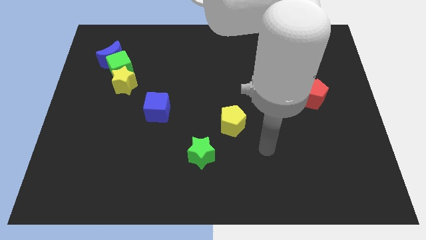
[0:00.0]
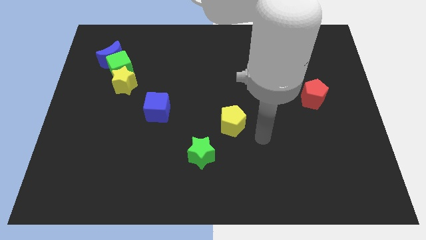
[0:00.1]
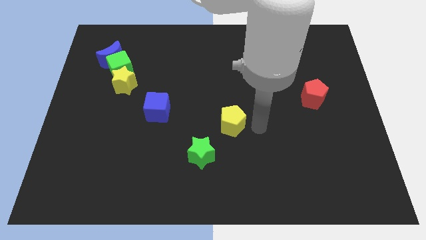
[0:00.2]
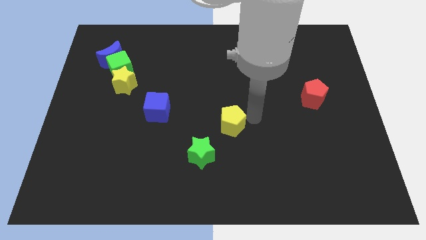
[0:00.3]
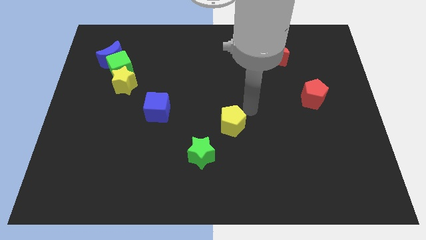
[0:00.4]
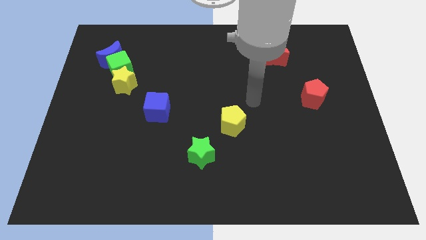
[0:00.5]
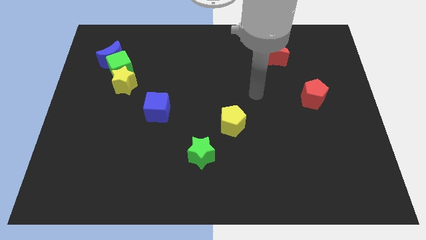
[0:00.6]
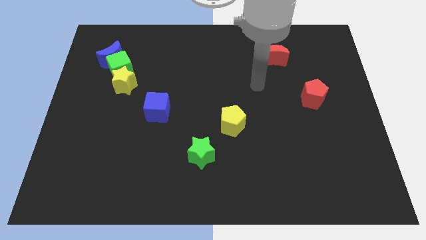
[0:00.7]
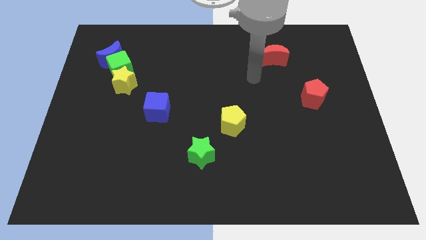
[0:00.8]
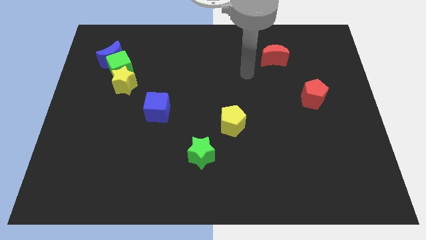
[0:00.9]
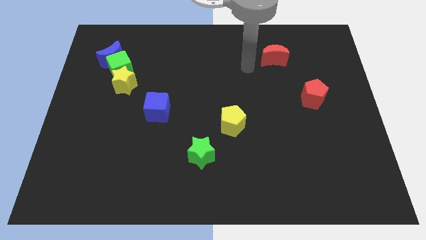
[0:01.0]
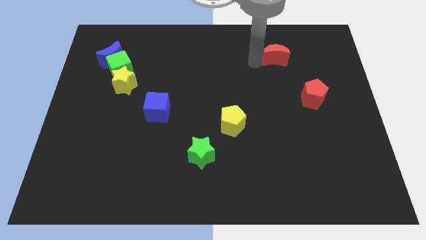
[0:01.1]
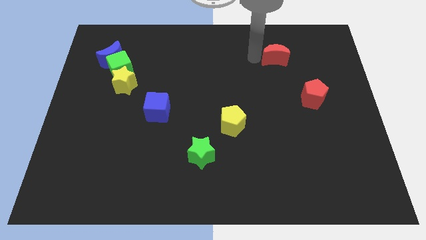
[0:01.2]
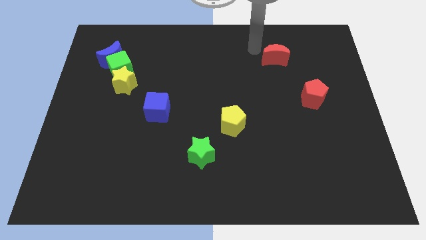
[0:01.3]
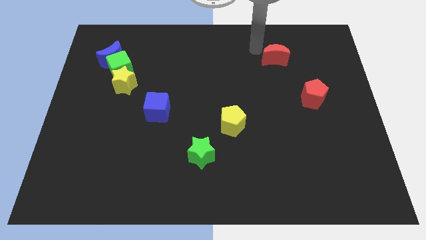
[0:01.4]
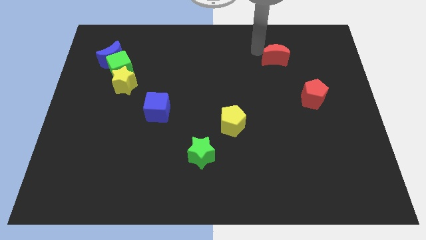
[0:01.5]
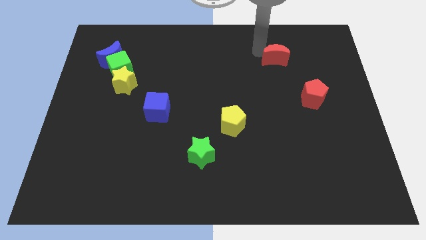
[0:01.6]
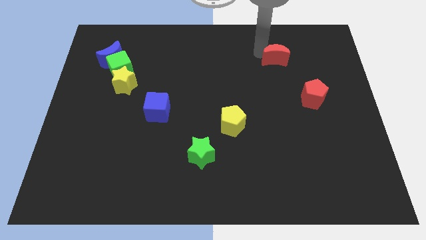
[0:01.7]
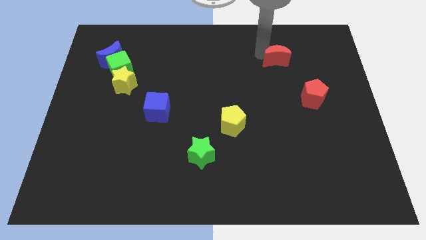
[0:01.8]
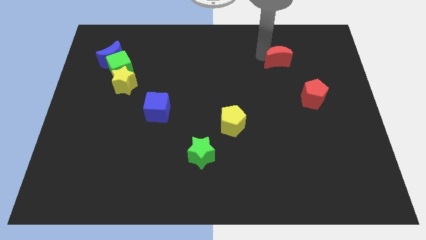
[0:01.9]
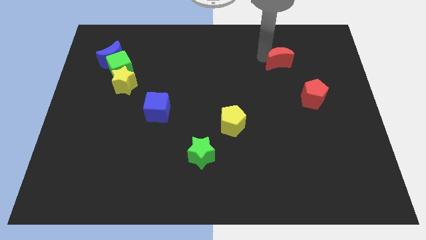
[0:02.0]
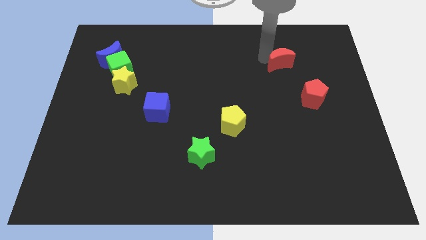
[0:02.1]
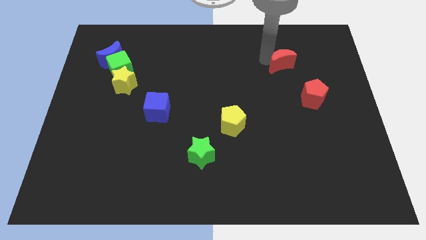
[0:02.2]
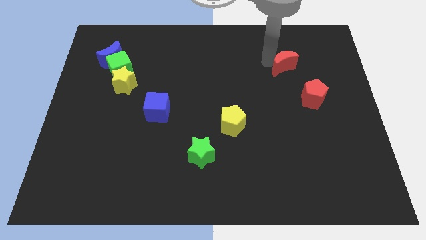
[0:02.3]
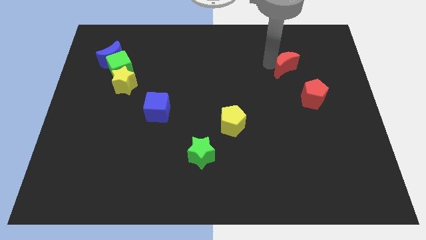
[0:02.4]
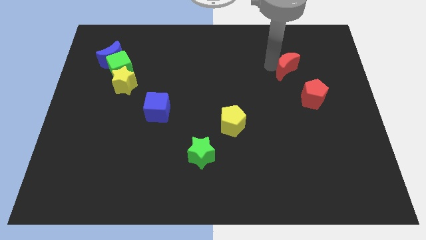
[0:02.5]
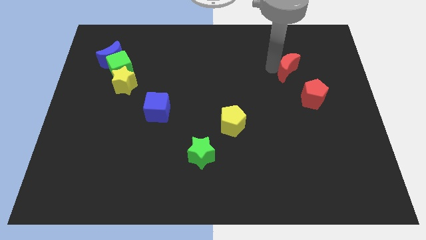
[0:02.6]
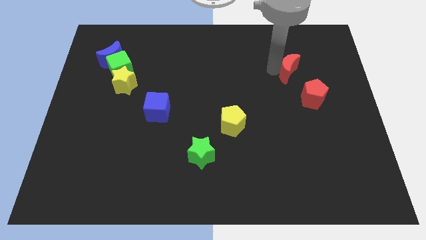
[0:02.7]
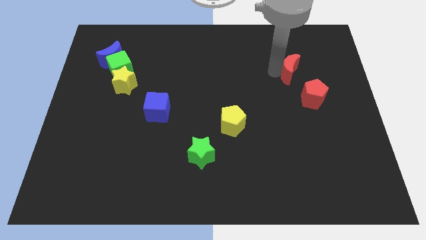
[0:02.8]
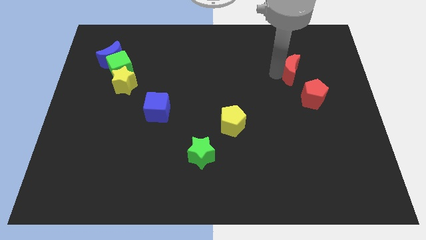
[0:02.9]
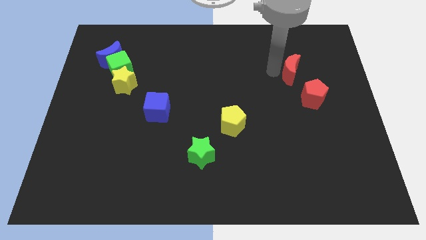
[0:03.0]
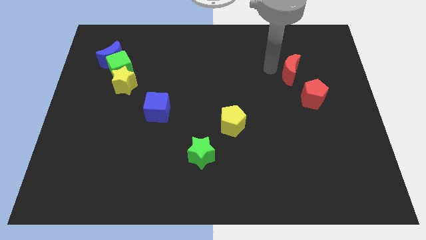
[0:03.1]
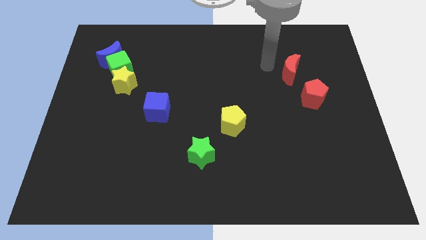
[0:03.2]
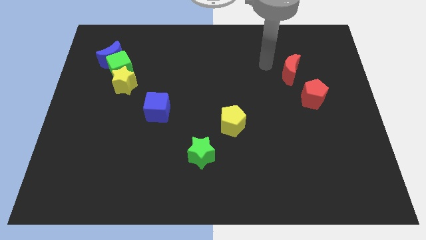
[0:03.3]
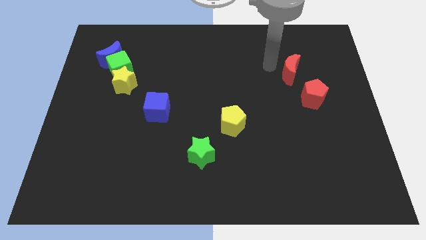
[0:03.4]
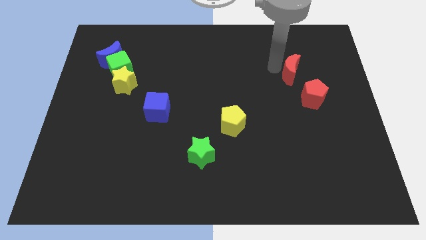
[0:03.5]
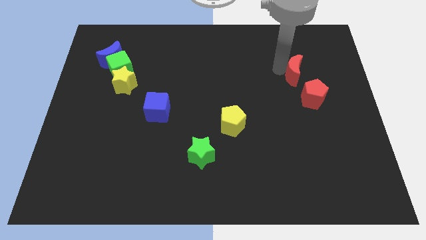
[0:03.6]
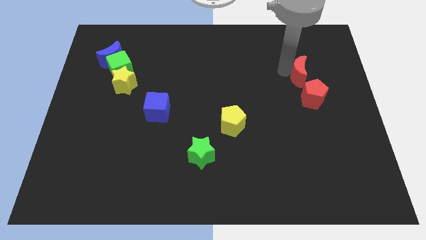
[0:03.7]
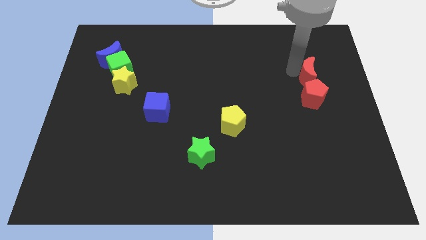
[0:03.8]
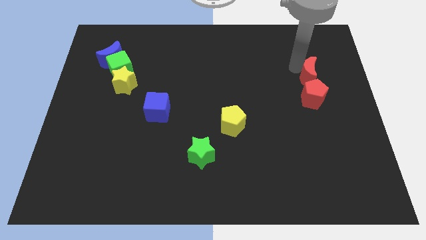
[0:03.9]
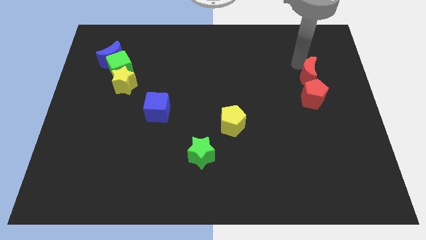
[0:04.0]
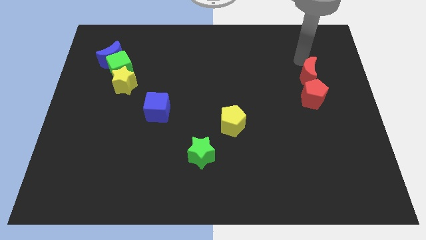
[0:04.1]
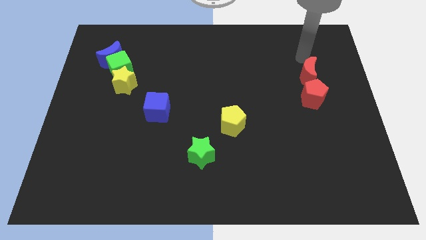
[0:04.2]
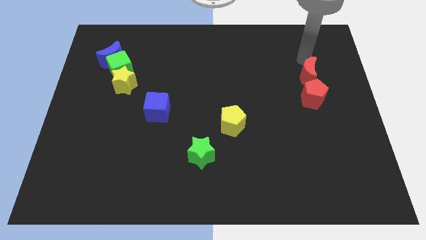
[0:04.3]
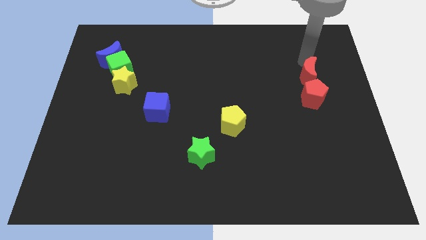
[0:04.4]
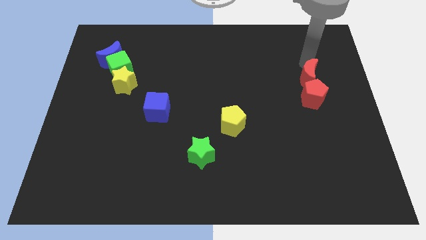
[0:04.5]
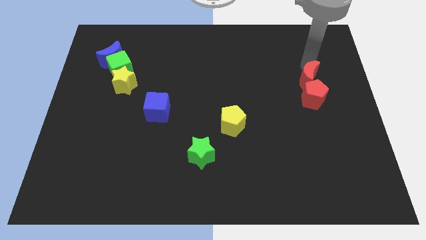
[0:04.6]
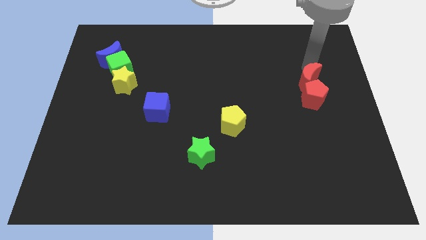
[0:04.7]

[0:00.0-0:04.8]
push the red moon towards the red pentagon

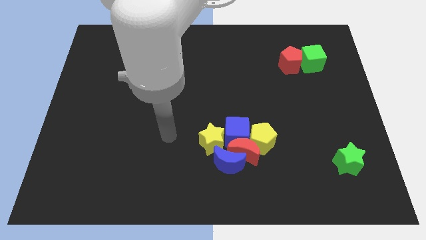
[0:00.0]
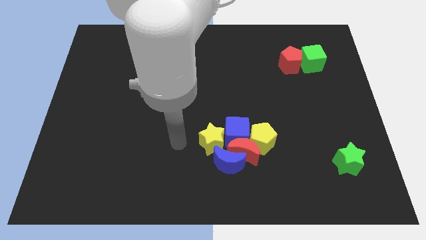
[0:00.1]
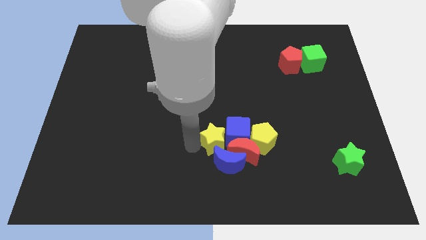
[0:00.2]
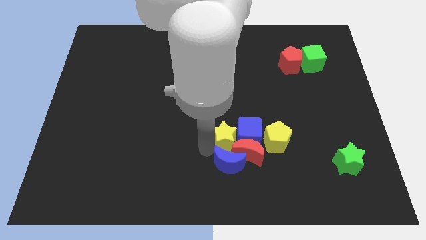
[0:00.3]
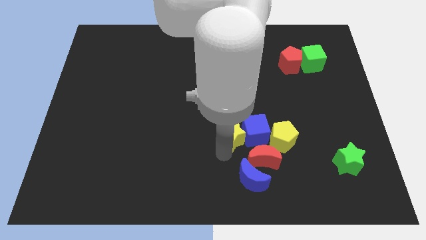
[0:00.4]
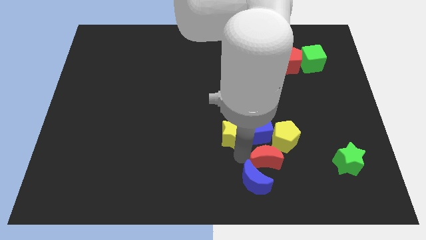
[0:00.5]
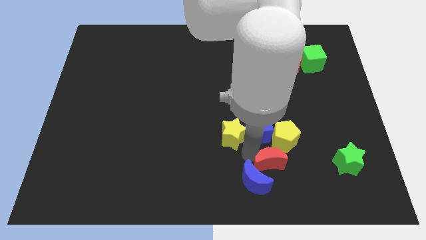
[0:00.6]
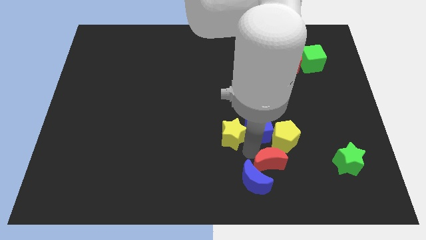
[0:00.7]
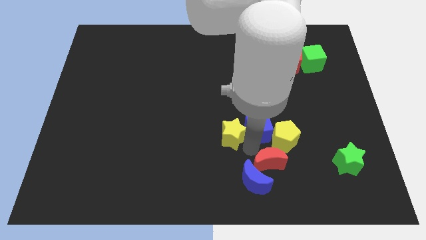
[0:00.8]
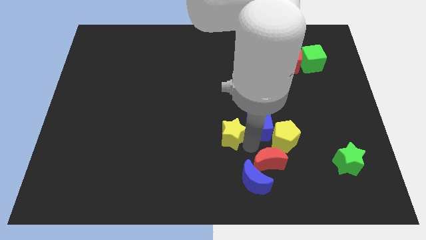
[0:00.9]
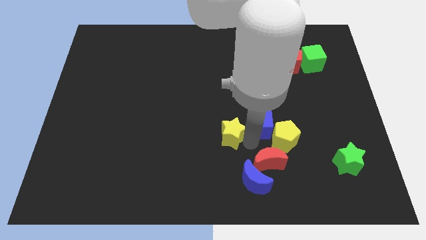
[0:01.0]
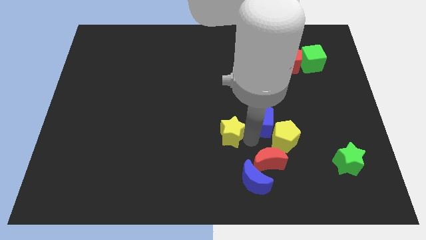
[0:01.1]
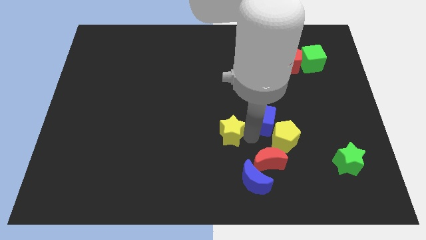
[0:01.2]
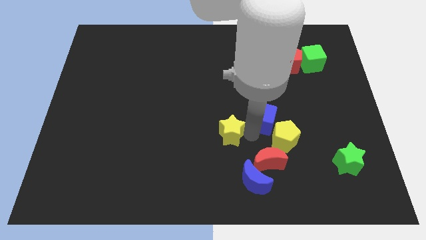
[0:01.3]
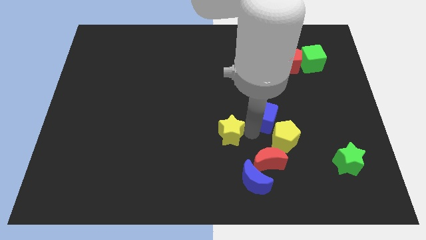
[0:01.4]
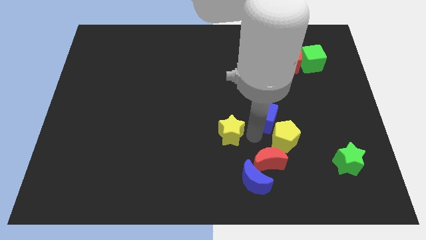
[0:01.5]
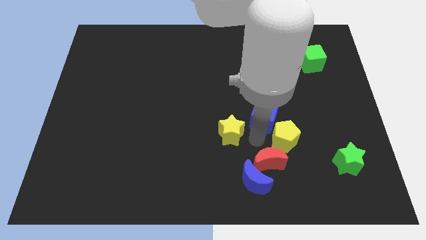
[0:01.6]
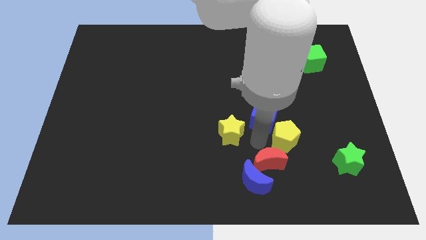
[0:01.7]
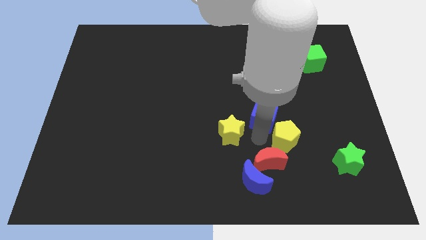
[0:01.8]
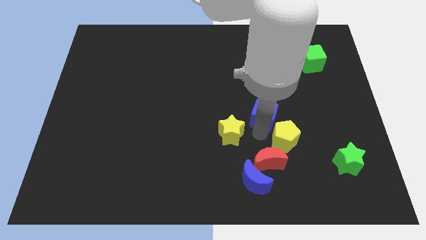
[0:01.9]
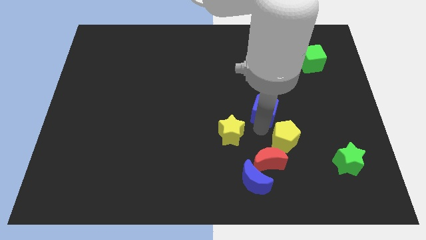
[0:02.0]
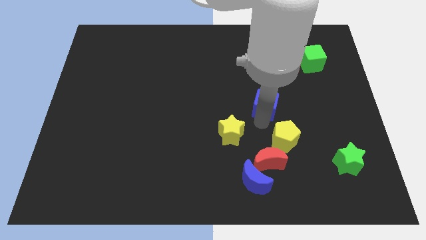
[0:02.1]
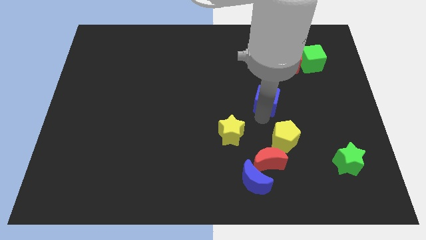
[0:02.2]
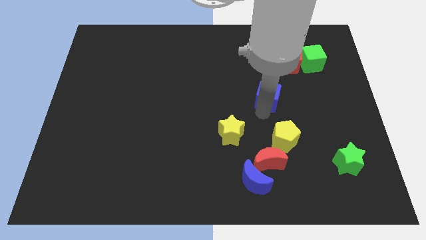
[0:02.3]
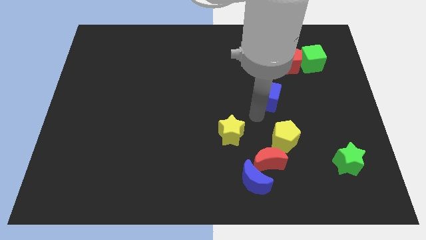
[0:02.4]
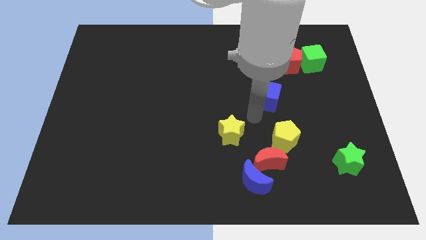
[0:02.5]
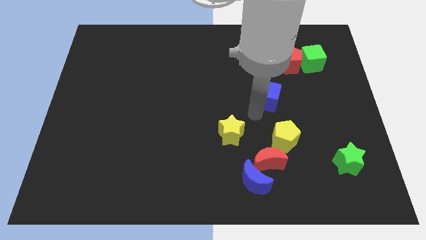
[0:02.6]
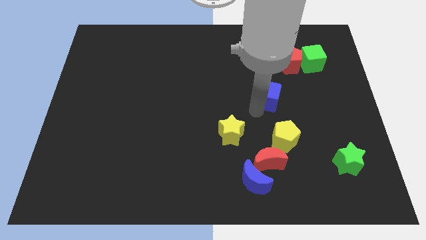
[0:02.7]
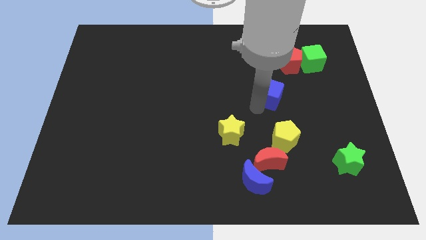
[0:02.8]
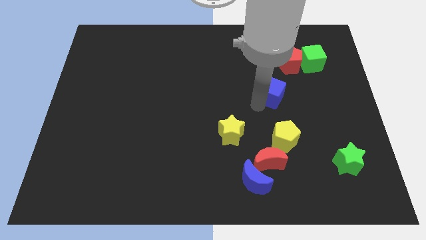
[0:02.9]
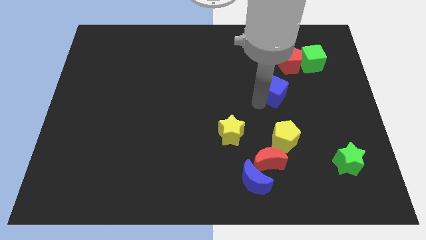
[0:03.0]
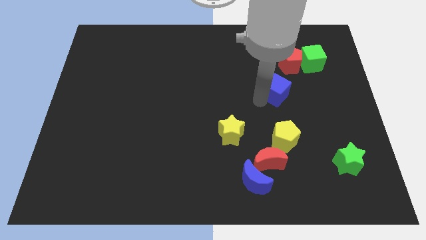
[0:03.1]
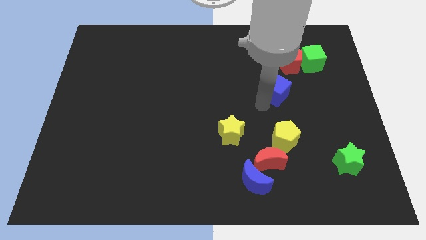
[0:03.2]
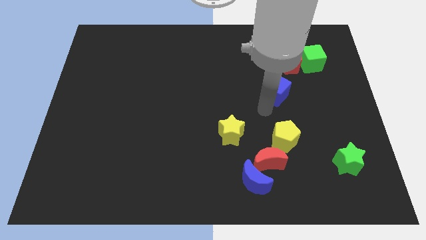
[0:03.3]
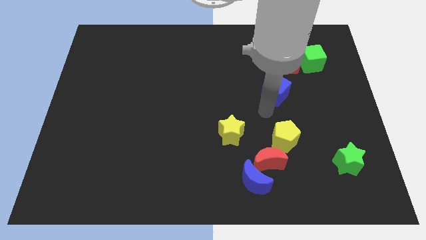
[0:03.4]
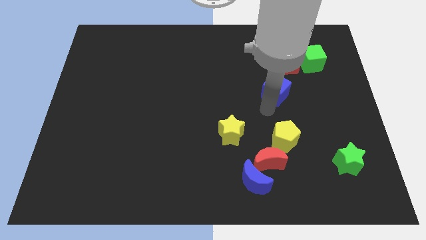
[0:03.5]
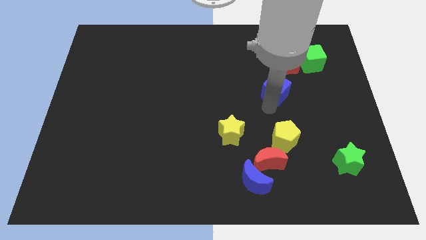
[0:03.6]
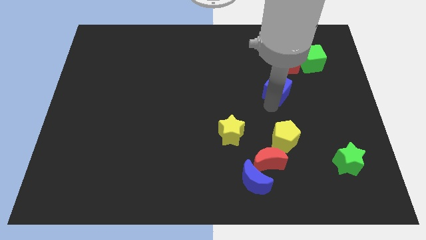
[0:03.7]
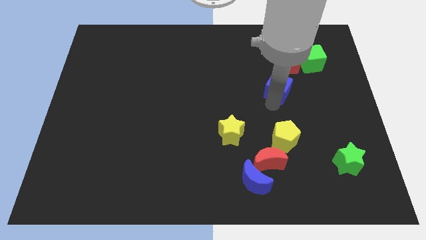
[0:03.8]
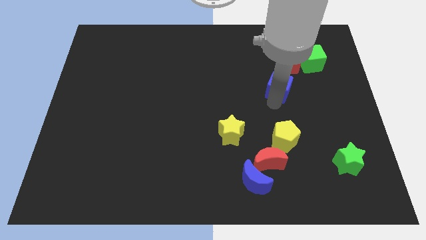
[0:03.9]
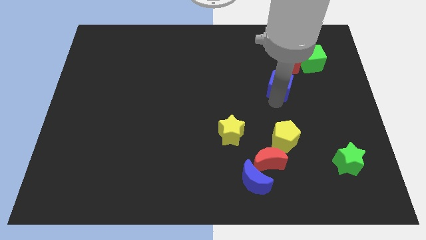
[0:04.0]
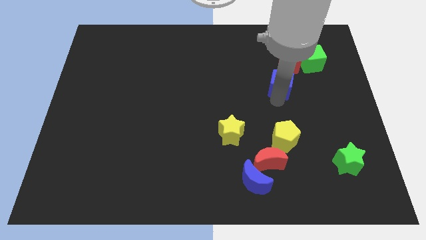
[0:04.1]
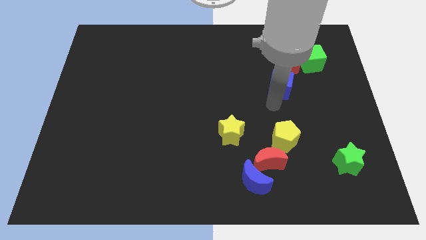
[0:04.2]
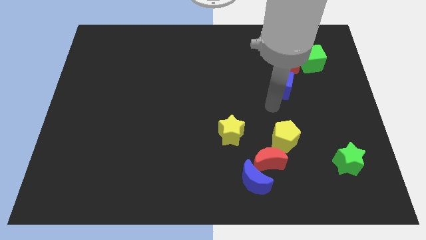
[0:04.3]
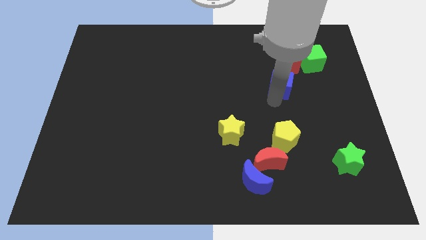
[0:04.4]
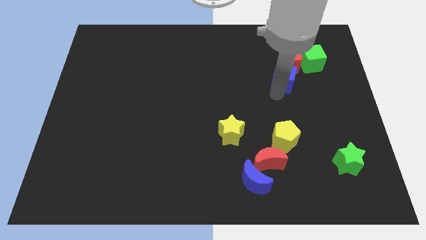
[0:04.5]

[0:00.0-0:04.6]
push the blue cube close to the red pentagon
